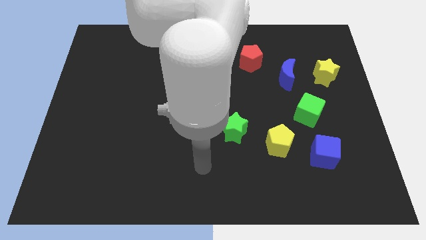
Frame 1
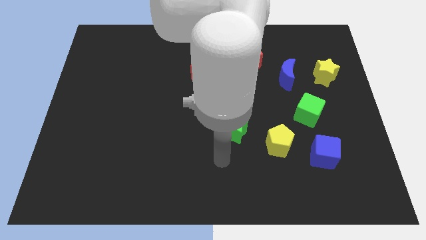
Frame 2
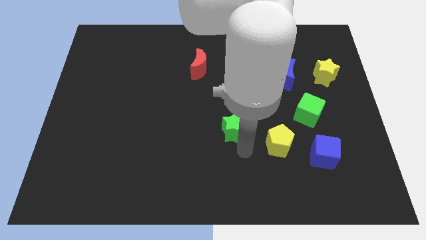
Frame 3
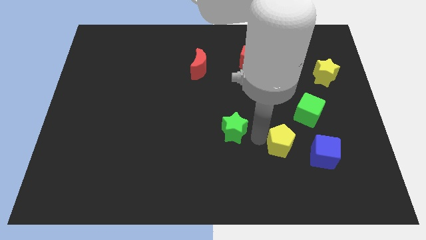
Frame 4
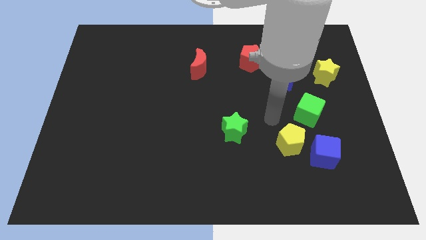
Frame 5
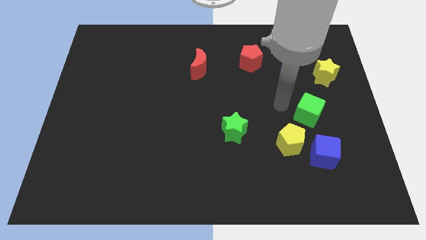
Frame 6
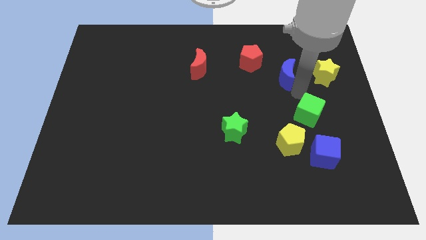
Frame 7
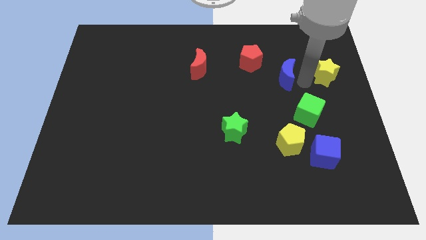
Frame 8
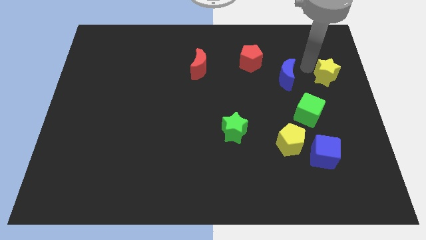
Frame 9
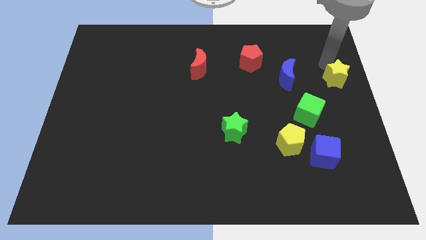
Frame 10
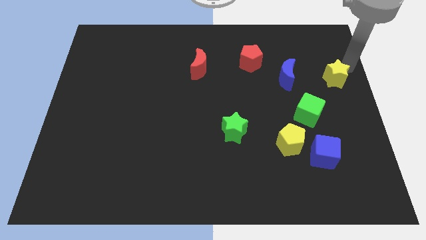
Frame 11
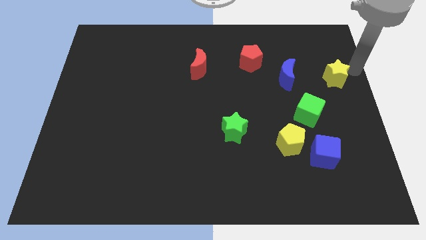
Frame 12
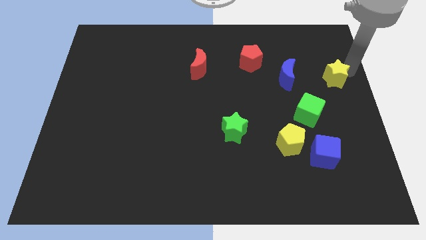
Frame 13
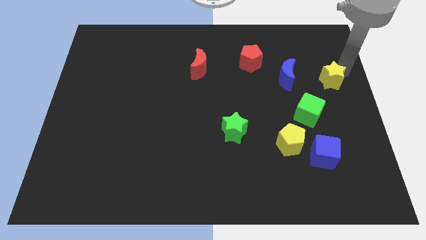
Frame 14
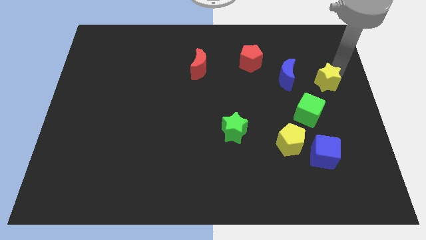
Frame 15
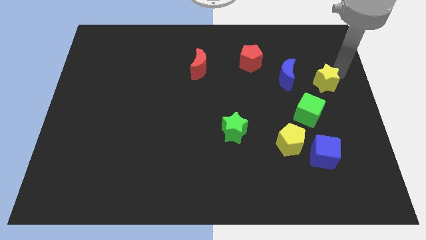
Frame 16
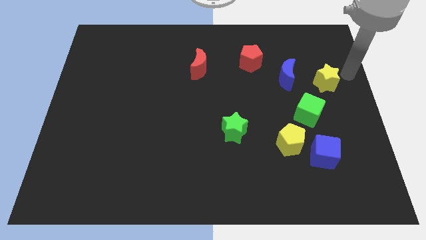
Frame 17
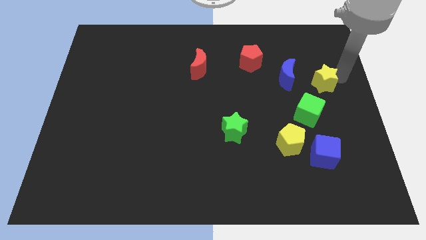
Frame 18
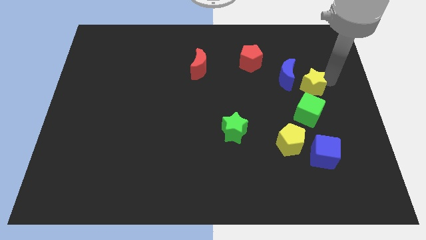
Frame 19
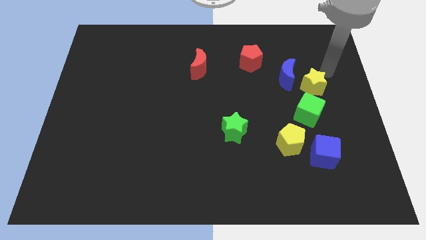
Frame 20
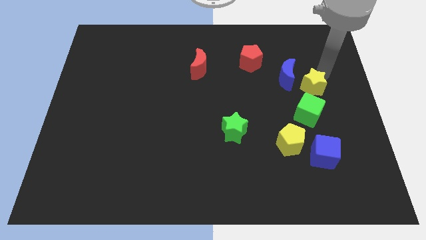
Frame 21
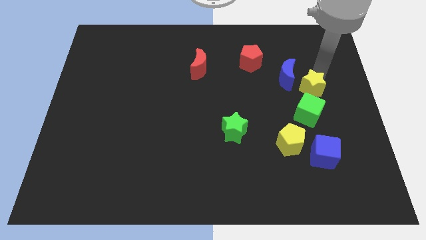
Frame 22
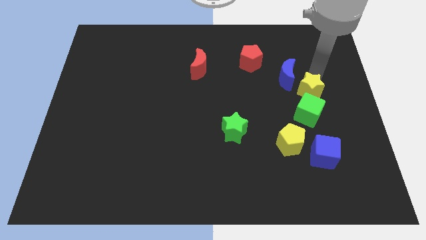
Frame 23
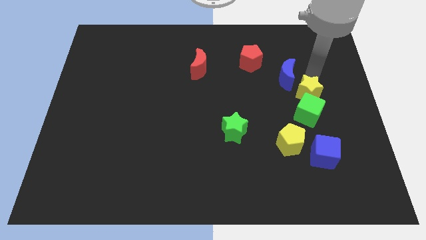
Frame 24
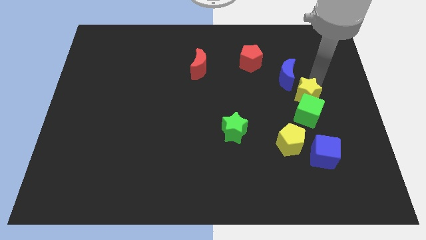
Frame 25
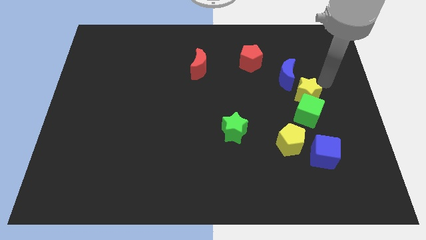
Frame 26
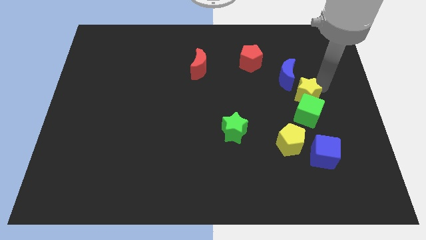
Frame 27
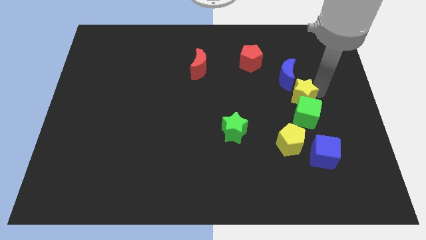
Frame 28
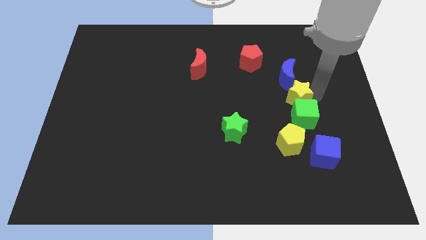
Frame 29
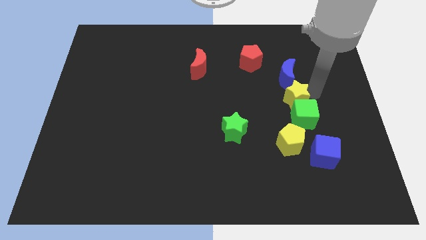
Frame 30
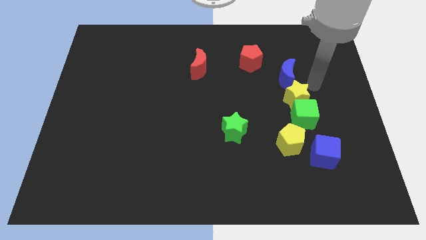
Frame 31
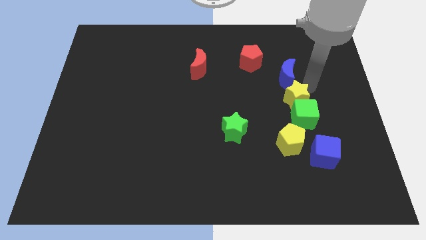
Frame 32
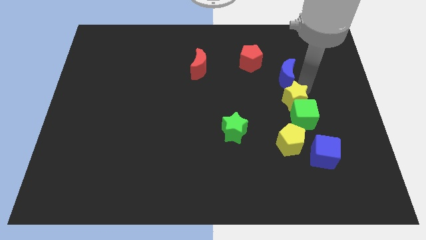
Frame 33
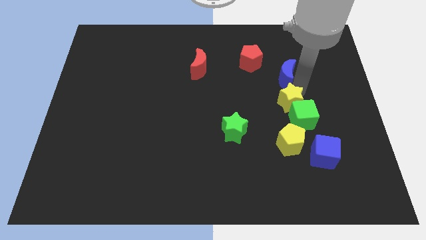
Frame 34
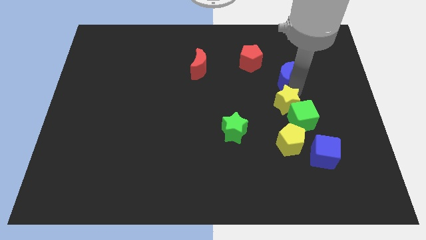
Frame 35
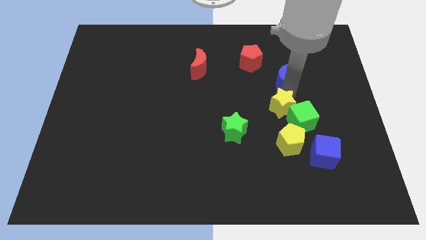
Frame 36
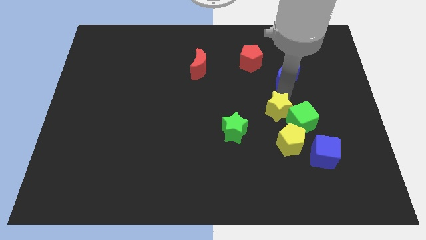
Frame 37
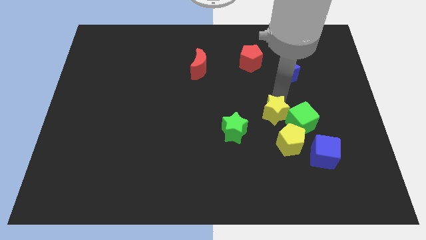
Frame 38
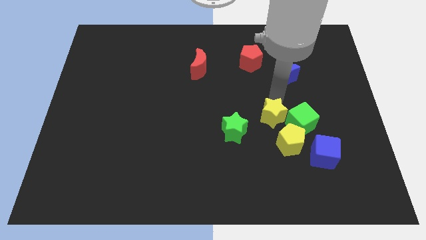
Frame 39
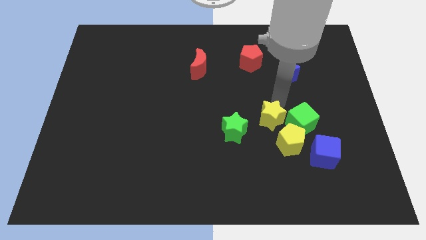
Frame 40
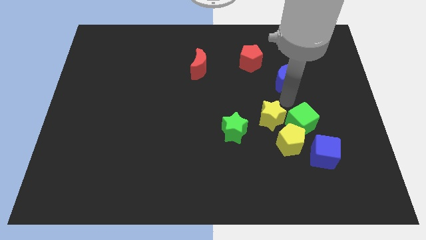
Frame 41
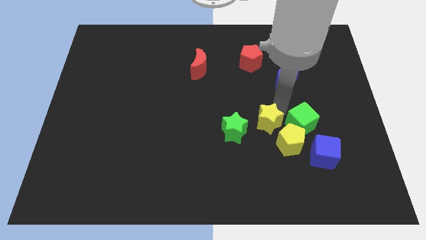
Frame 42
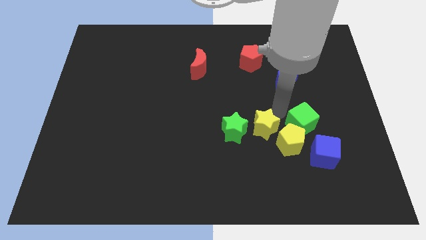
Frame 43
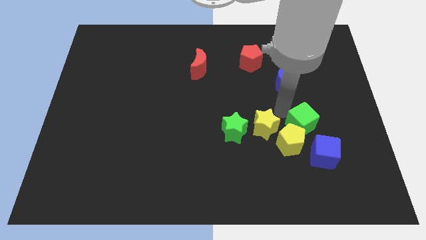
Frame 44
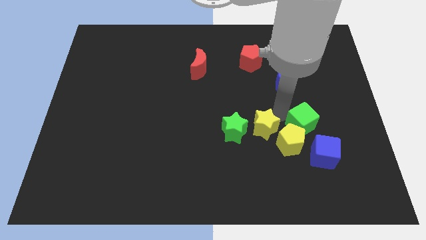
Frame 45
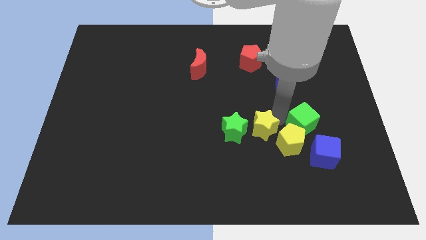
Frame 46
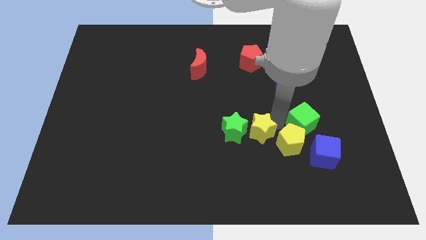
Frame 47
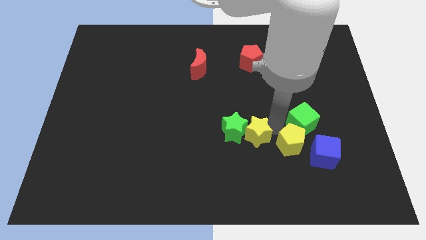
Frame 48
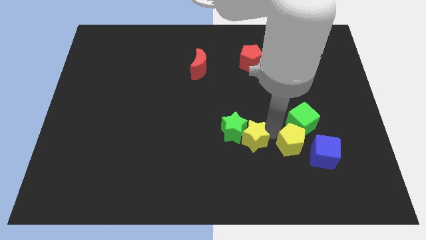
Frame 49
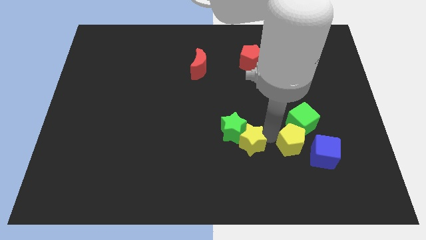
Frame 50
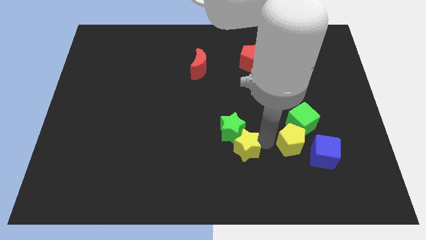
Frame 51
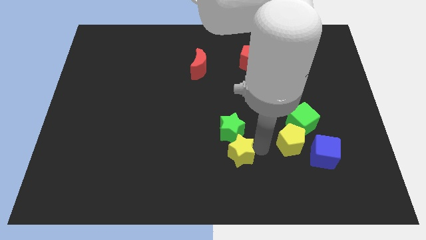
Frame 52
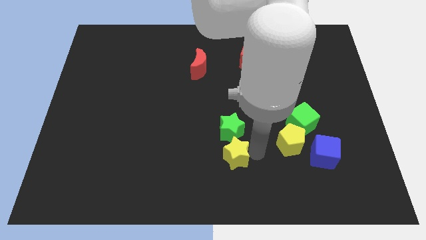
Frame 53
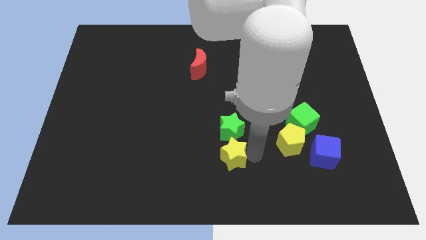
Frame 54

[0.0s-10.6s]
push the yellow star to the bottom left side of the green star
